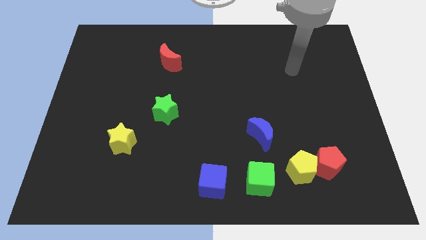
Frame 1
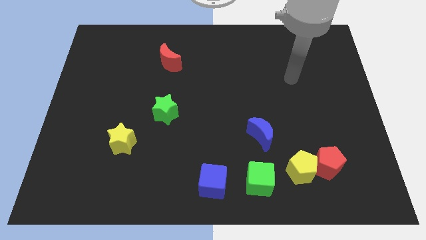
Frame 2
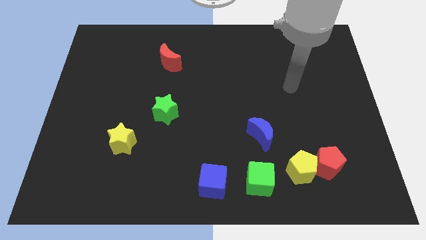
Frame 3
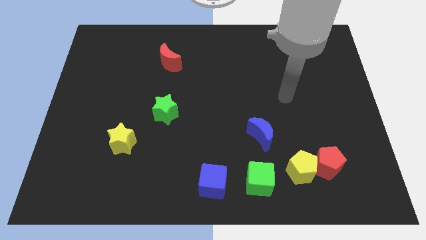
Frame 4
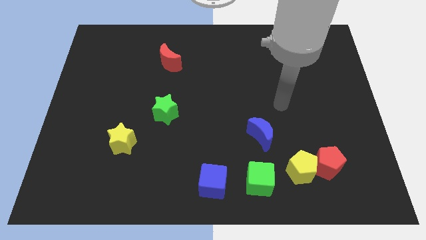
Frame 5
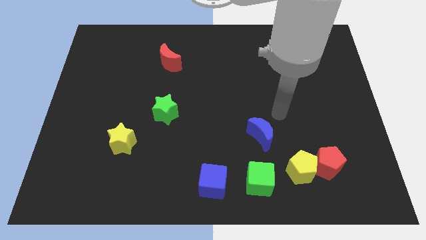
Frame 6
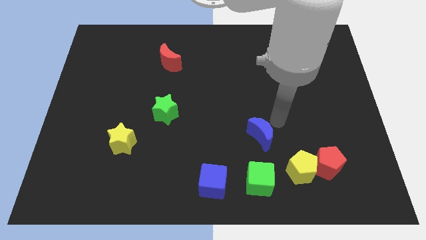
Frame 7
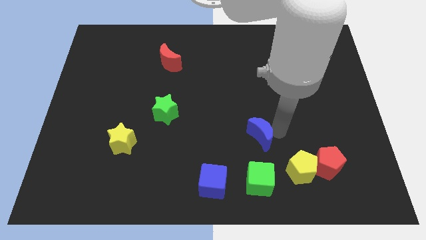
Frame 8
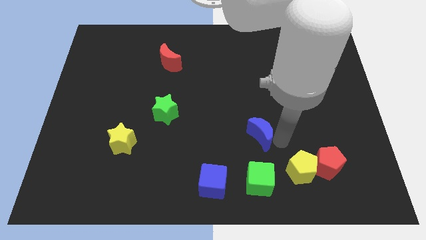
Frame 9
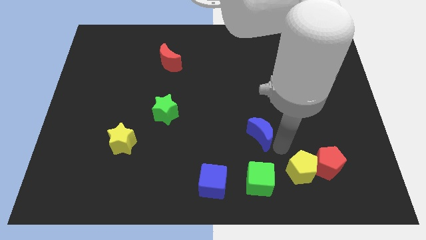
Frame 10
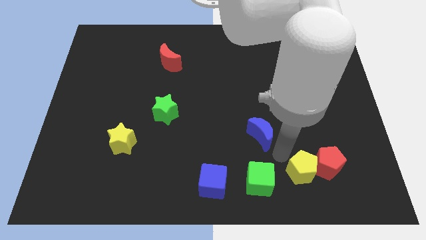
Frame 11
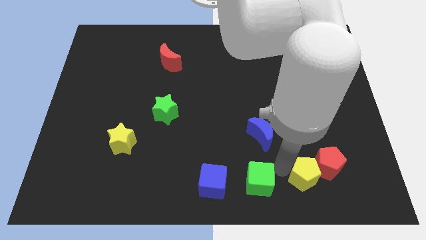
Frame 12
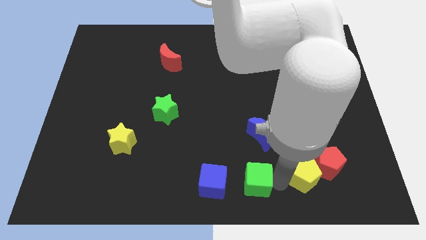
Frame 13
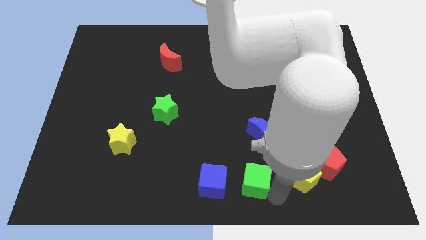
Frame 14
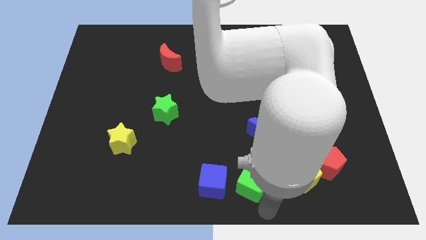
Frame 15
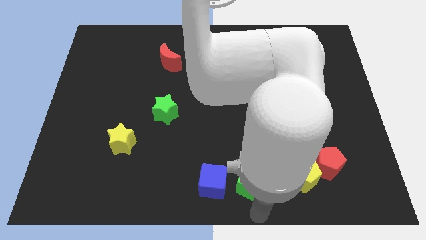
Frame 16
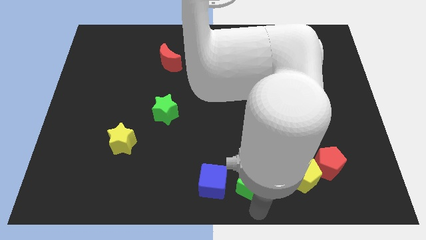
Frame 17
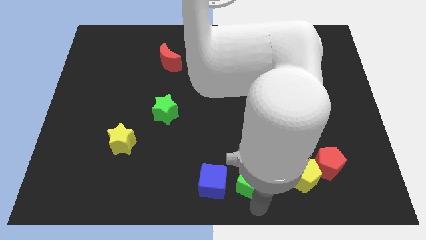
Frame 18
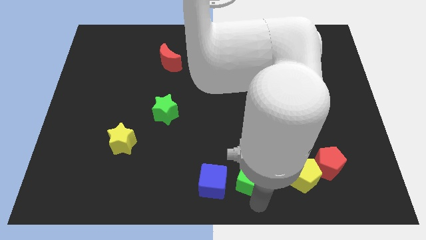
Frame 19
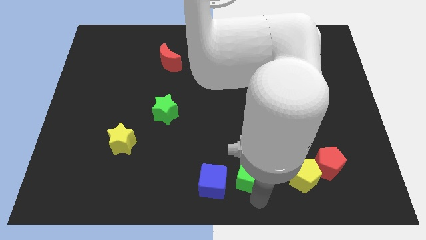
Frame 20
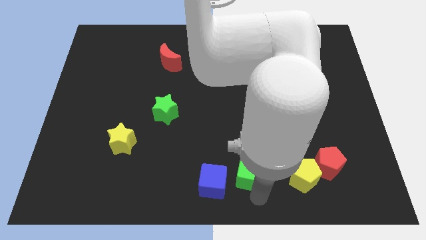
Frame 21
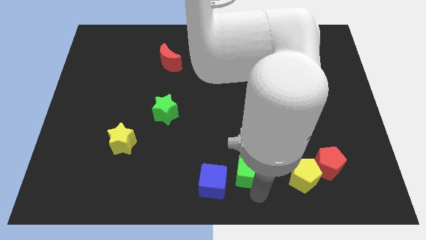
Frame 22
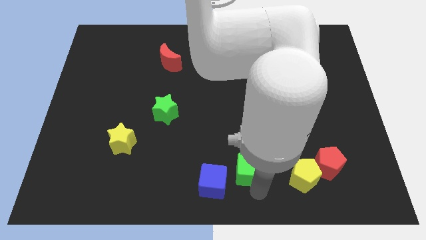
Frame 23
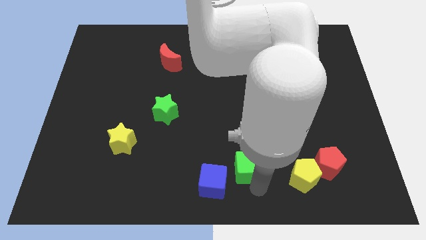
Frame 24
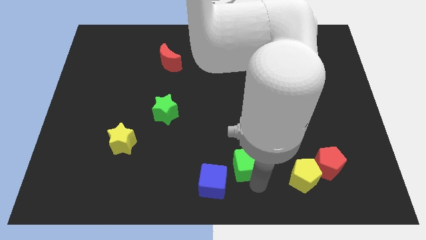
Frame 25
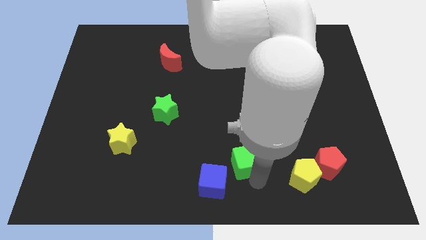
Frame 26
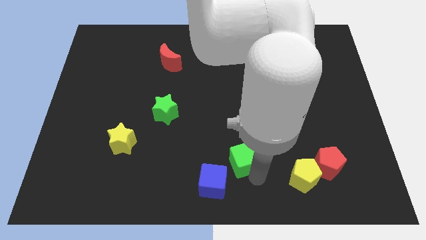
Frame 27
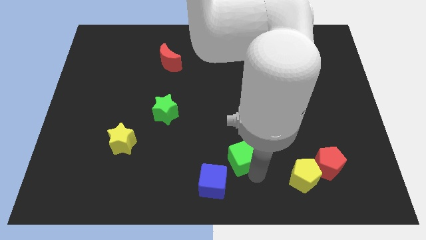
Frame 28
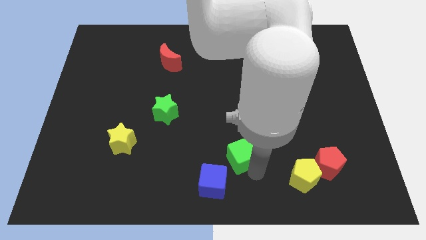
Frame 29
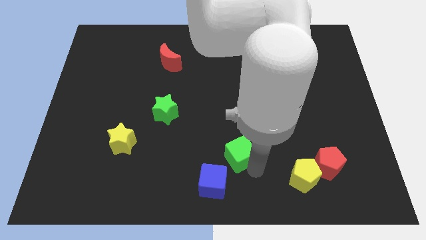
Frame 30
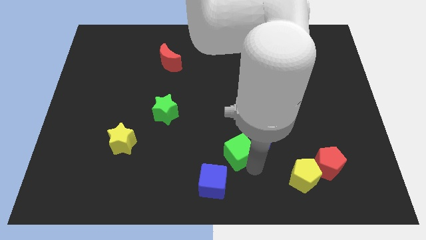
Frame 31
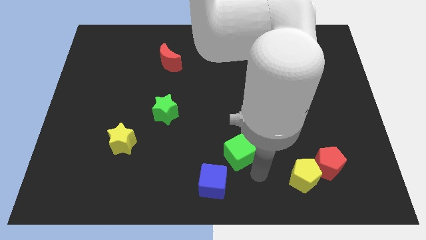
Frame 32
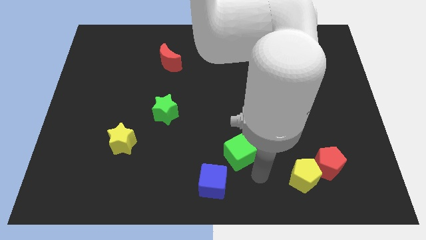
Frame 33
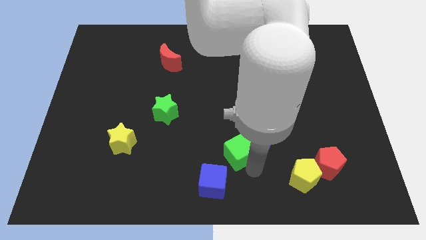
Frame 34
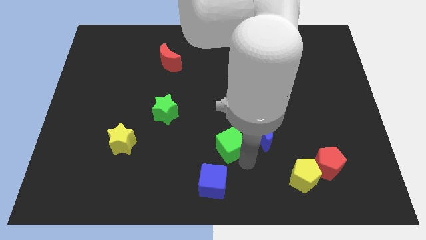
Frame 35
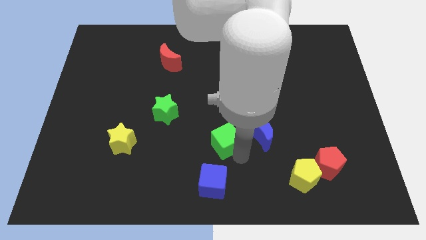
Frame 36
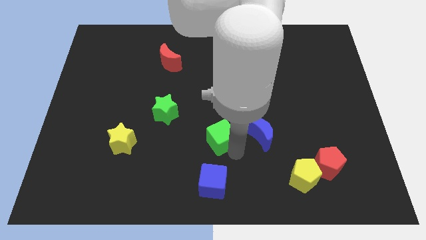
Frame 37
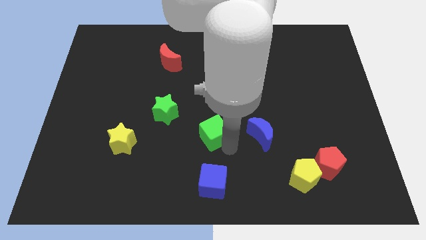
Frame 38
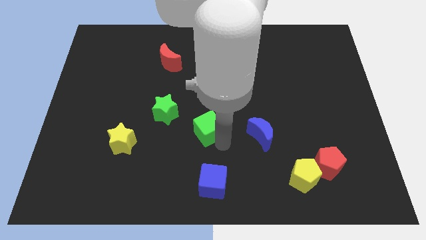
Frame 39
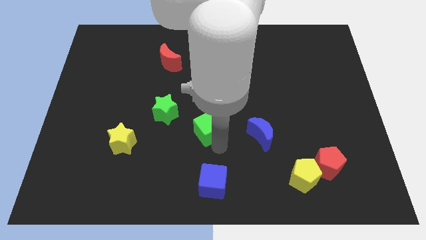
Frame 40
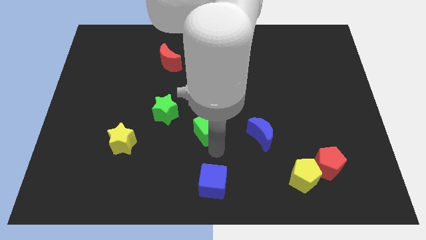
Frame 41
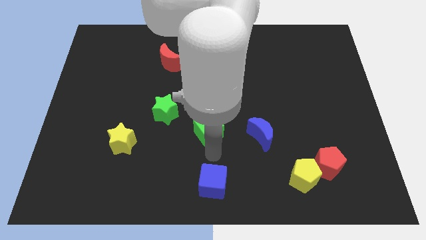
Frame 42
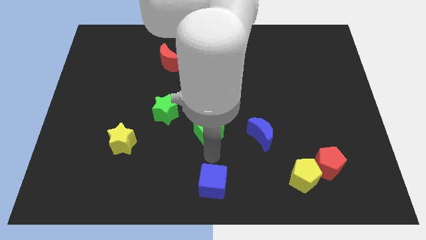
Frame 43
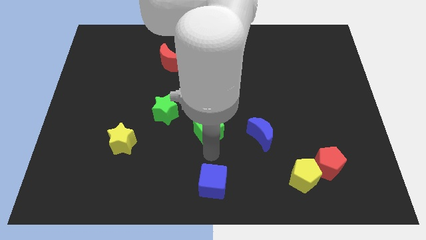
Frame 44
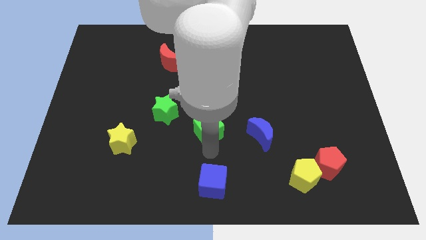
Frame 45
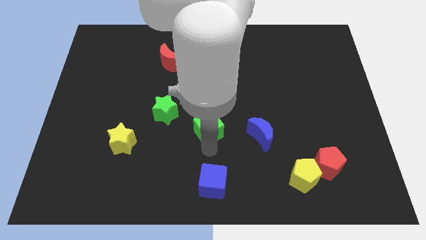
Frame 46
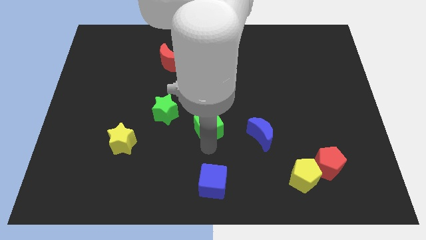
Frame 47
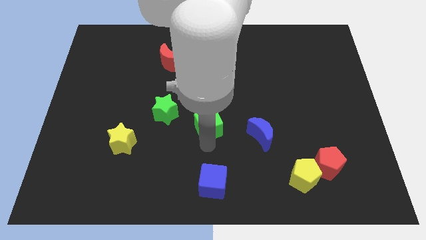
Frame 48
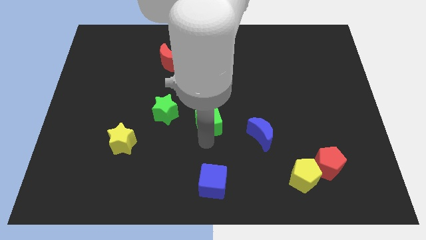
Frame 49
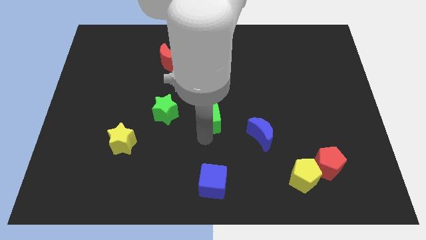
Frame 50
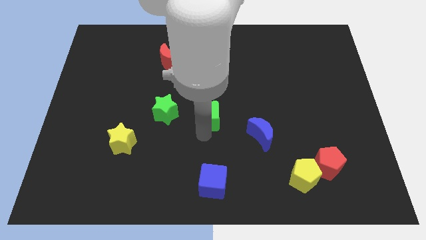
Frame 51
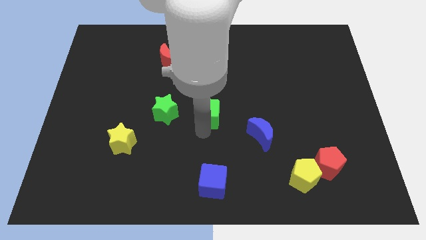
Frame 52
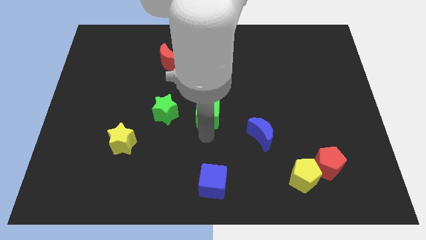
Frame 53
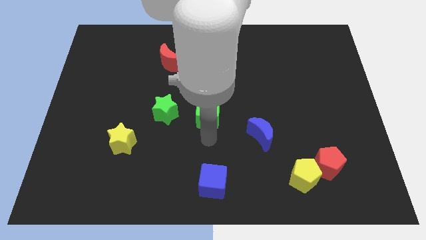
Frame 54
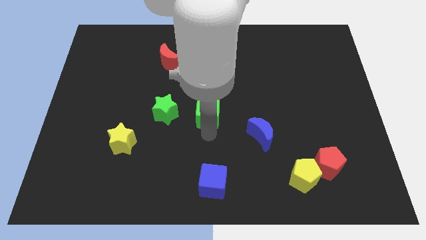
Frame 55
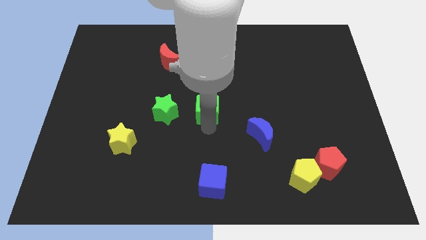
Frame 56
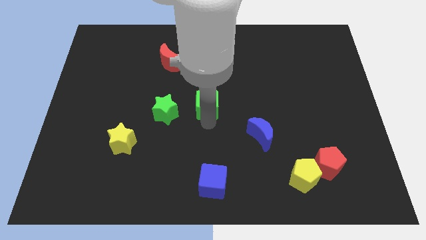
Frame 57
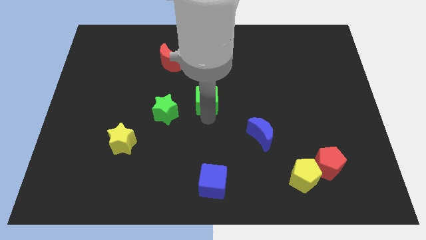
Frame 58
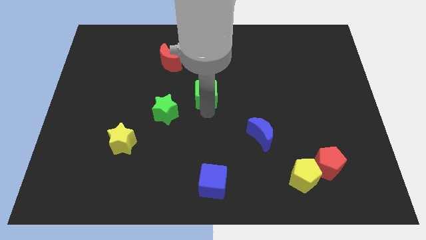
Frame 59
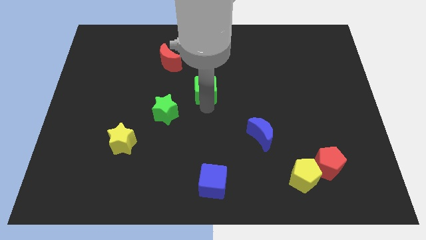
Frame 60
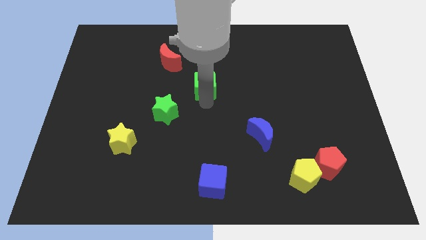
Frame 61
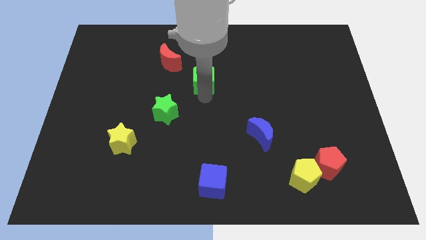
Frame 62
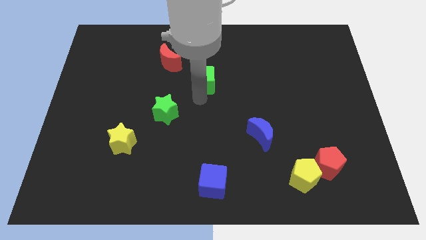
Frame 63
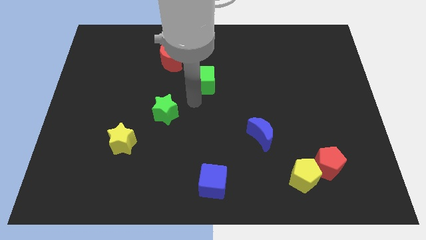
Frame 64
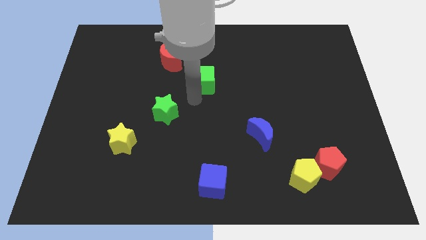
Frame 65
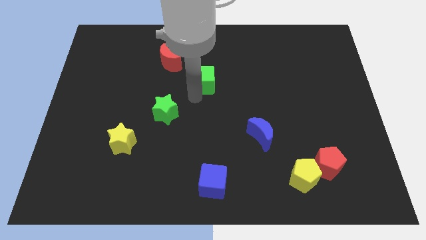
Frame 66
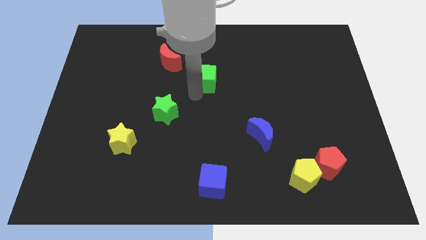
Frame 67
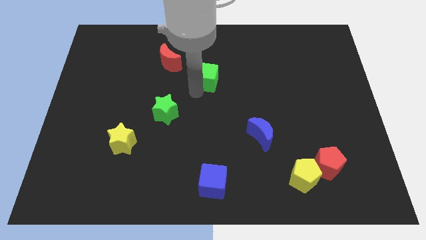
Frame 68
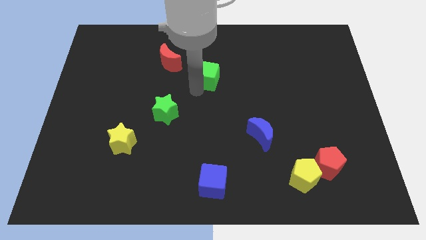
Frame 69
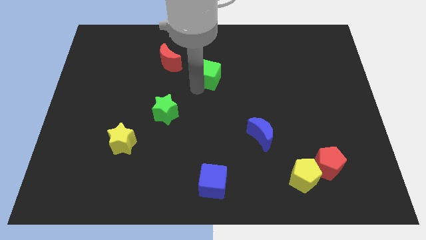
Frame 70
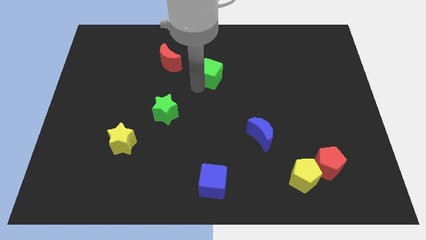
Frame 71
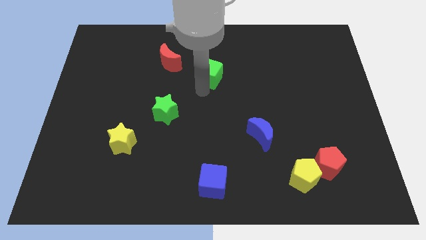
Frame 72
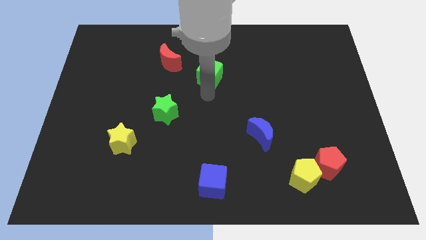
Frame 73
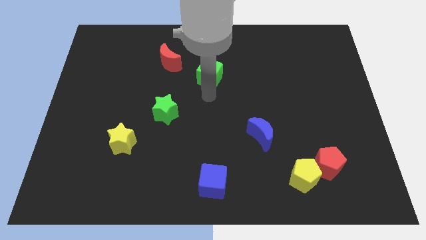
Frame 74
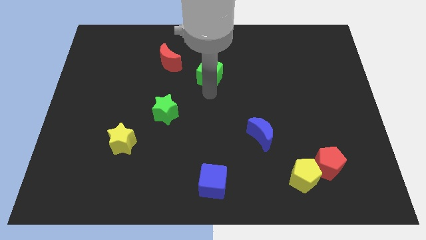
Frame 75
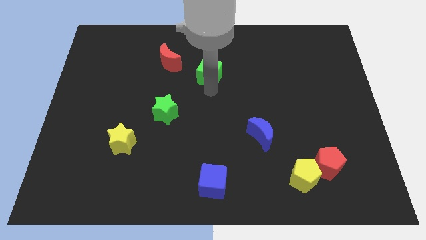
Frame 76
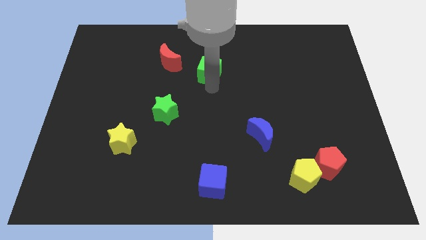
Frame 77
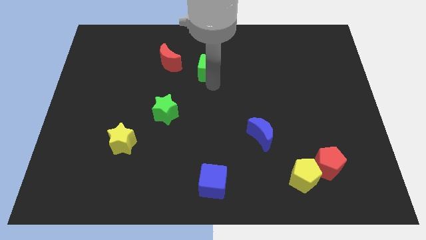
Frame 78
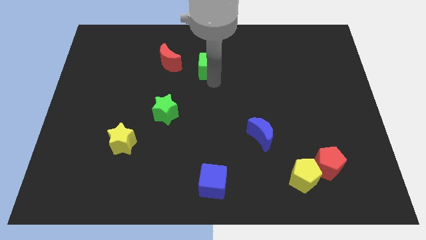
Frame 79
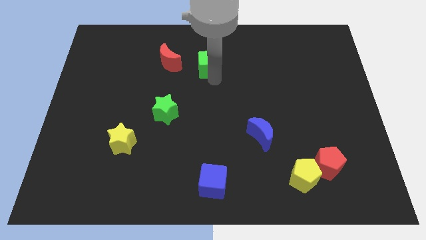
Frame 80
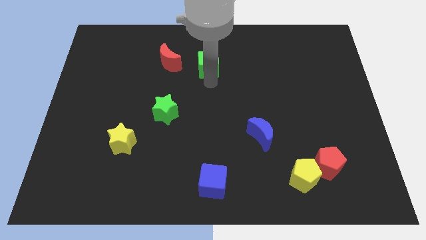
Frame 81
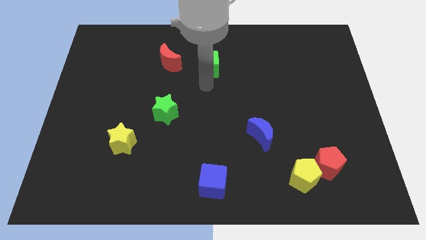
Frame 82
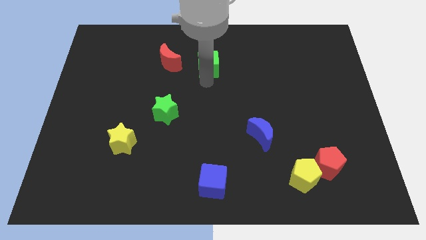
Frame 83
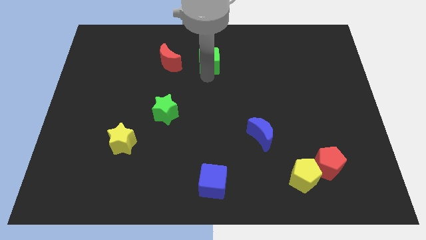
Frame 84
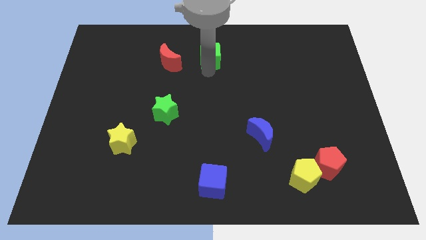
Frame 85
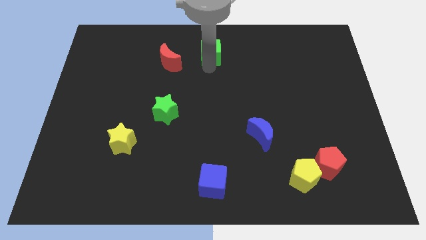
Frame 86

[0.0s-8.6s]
push the green cube to the top
